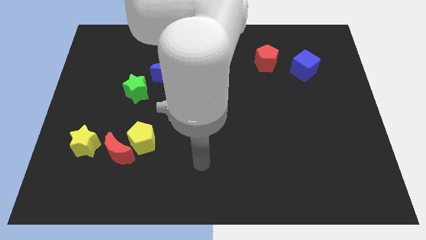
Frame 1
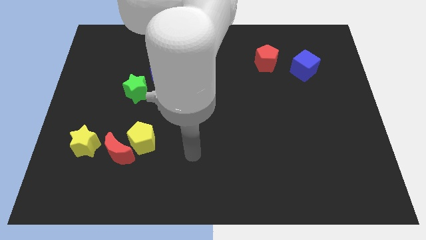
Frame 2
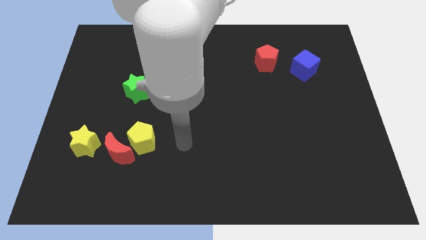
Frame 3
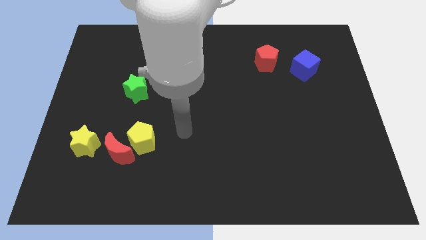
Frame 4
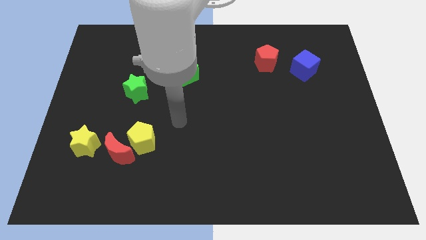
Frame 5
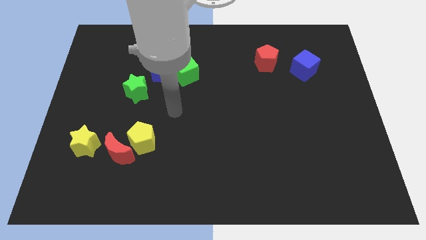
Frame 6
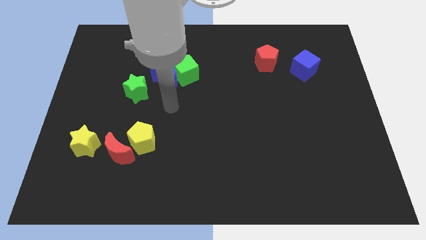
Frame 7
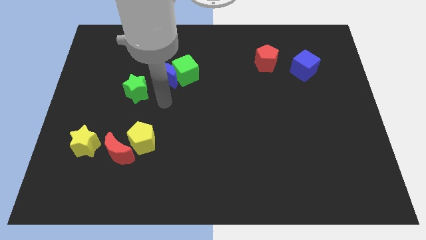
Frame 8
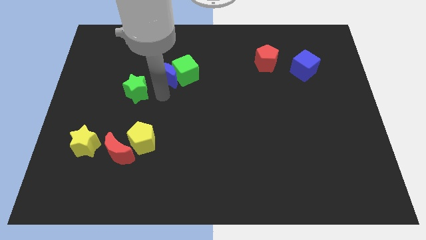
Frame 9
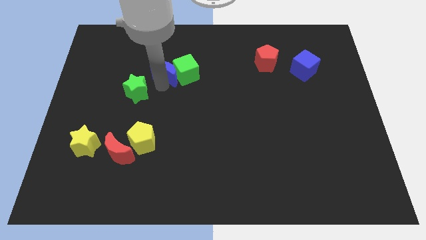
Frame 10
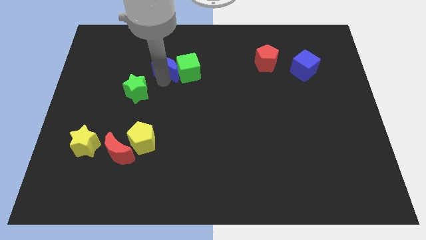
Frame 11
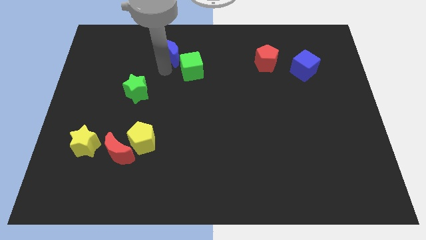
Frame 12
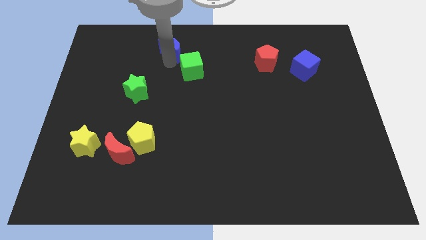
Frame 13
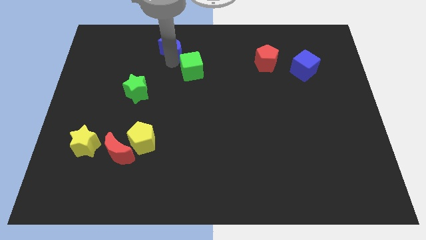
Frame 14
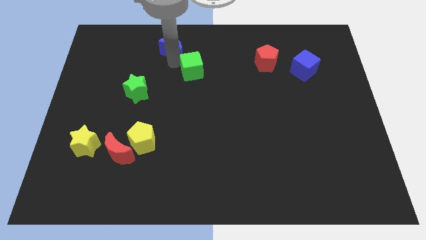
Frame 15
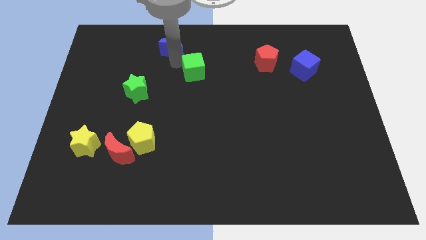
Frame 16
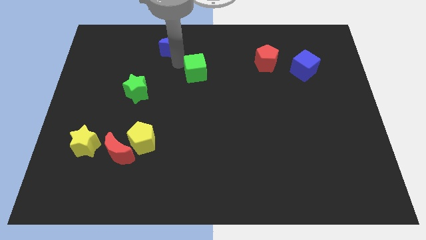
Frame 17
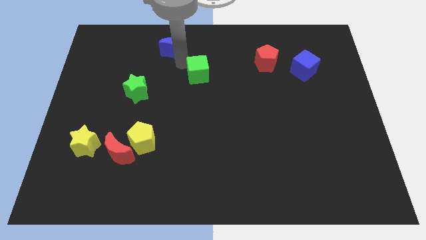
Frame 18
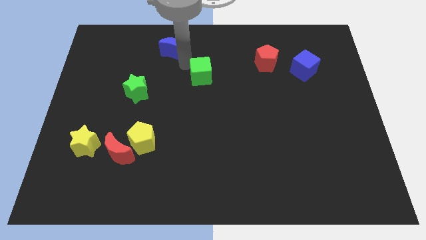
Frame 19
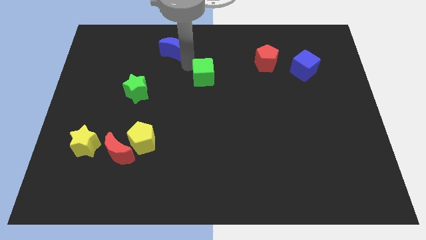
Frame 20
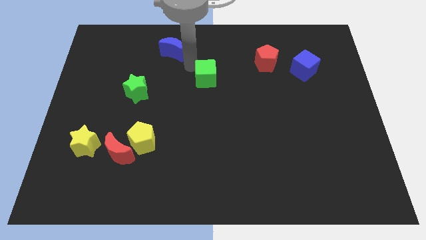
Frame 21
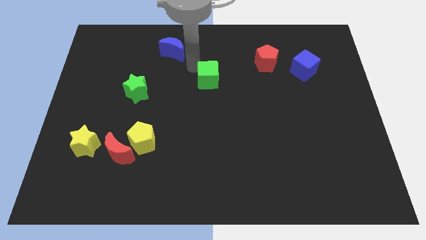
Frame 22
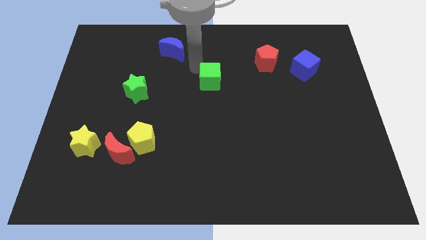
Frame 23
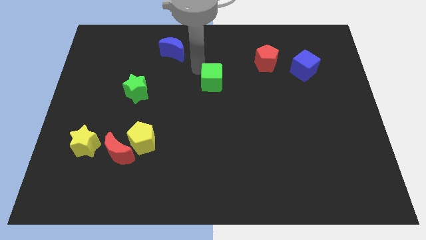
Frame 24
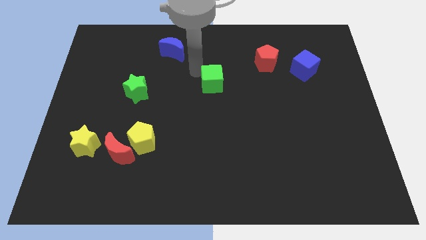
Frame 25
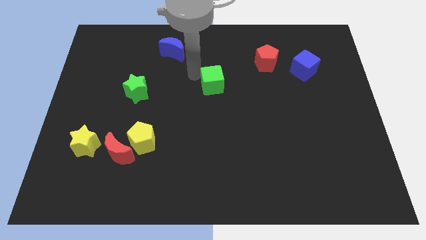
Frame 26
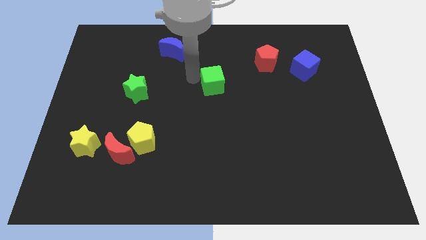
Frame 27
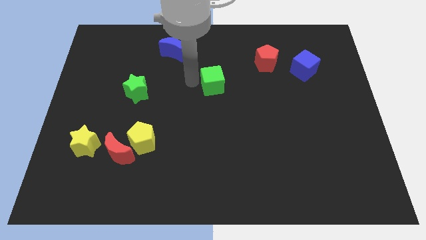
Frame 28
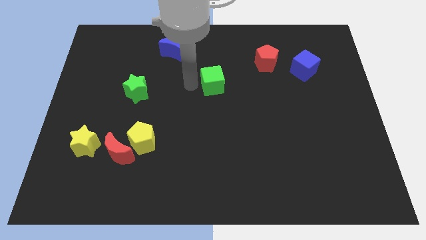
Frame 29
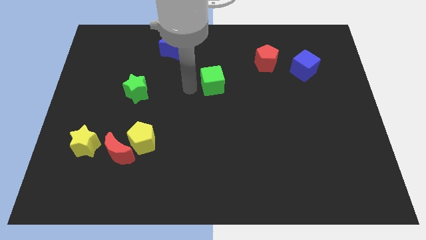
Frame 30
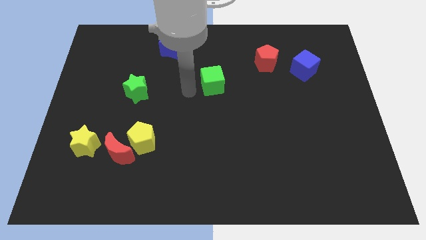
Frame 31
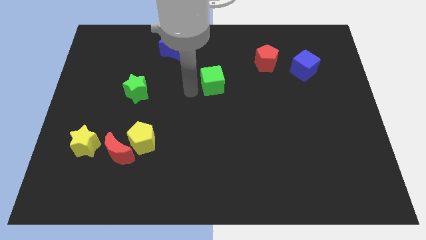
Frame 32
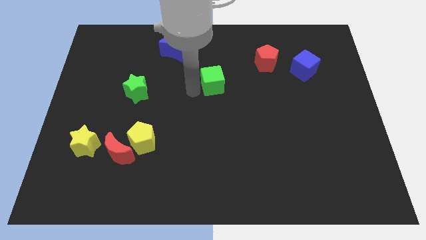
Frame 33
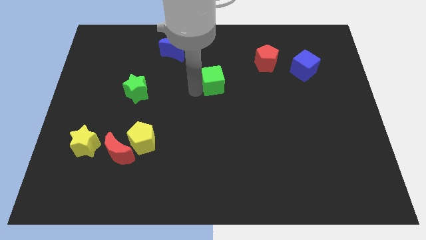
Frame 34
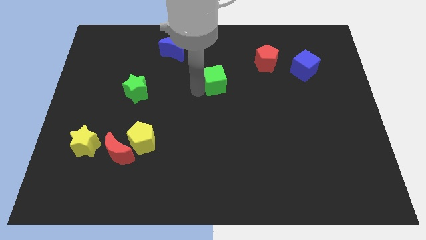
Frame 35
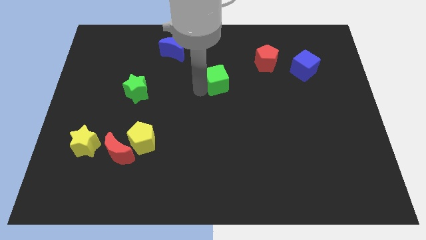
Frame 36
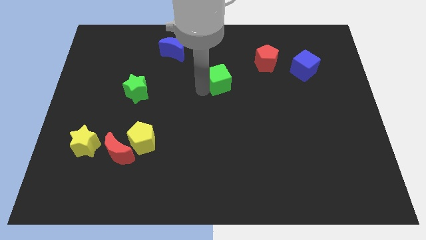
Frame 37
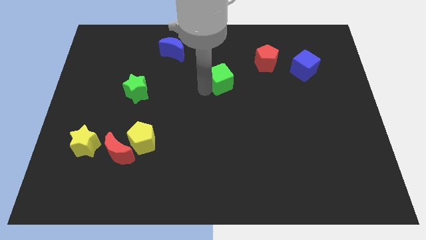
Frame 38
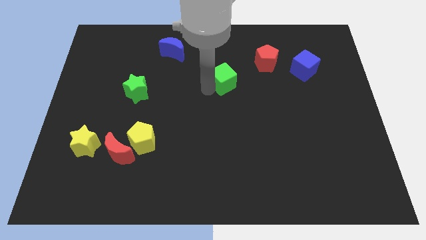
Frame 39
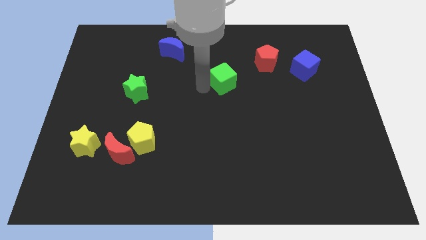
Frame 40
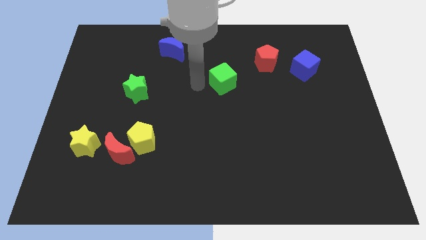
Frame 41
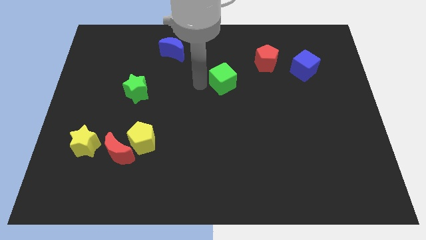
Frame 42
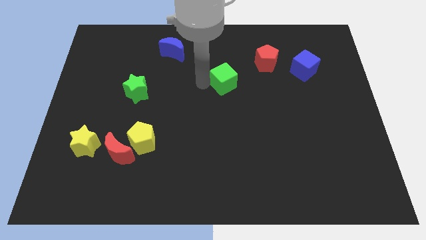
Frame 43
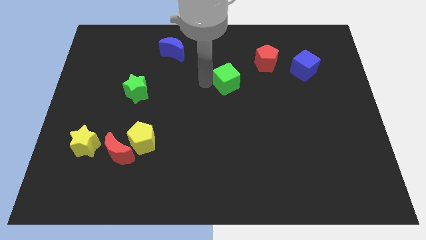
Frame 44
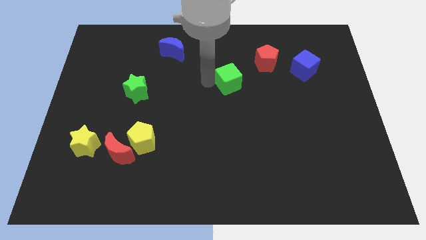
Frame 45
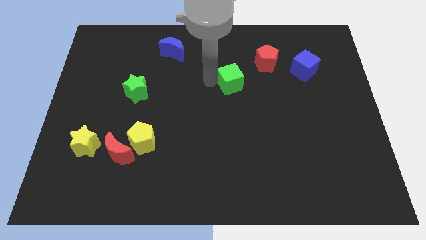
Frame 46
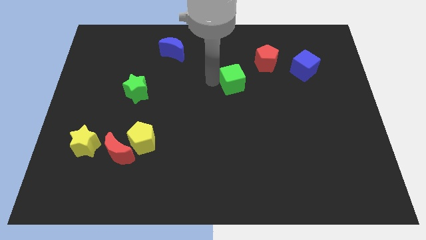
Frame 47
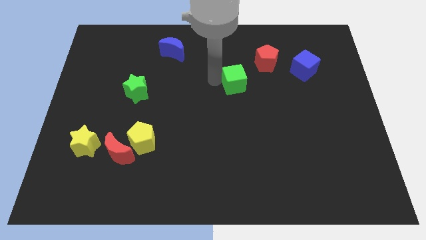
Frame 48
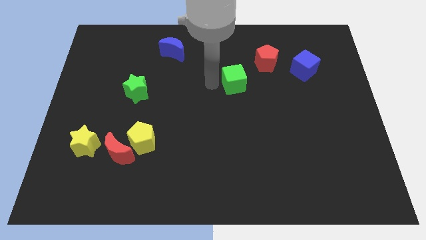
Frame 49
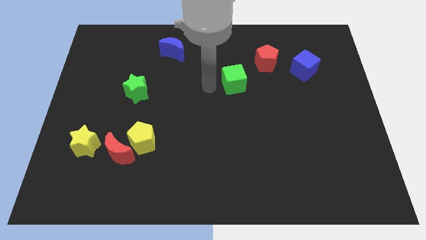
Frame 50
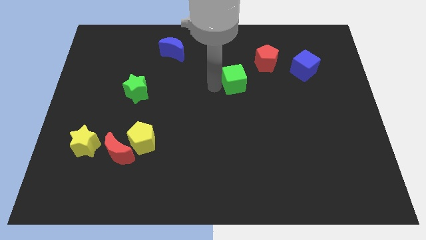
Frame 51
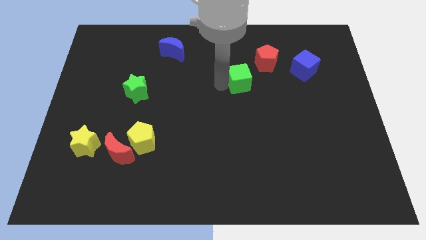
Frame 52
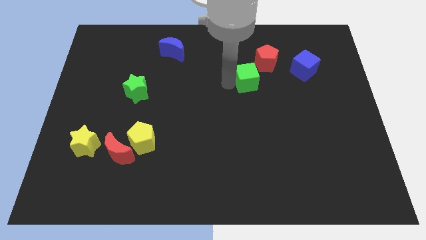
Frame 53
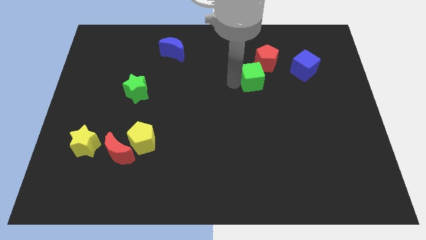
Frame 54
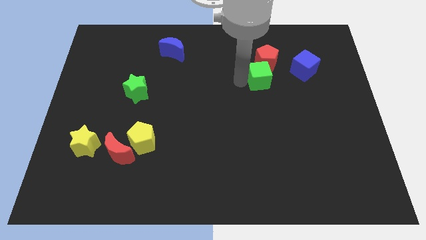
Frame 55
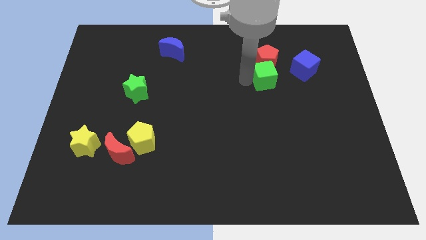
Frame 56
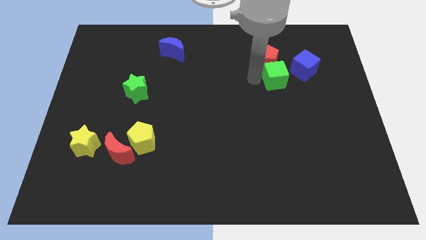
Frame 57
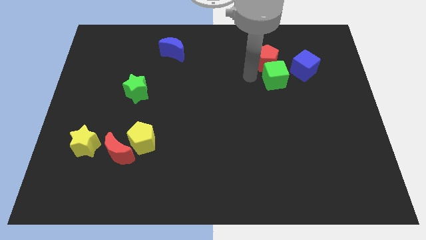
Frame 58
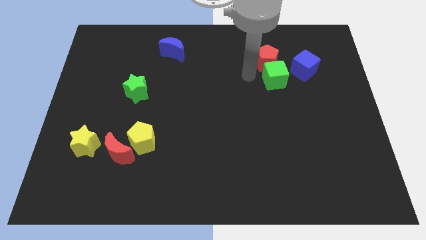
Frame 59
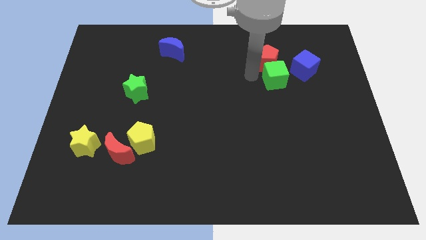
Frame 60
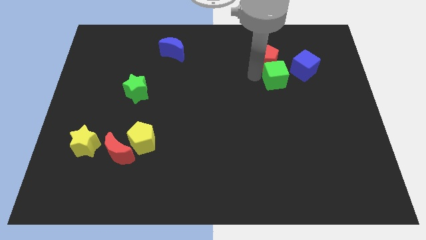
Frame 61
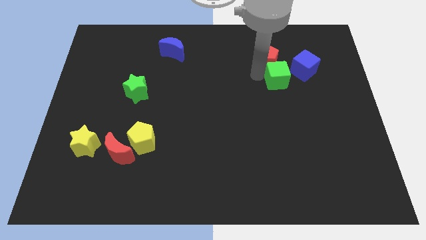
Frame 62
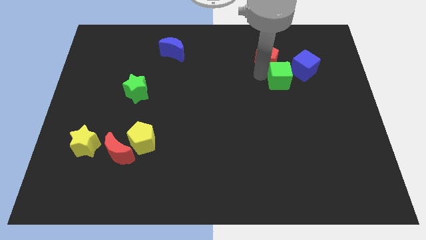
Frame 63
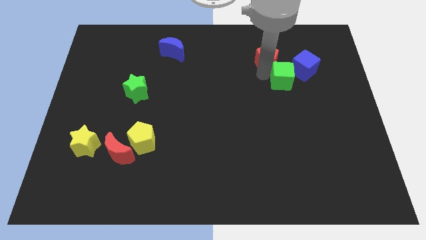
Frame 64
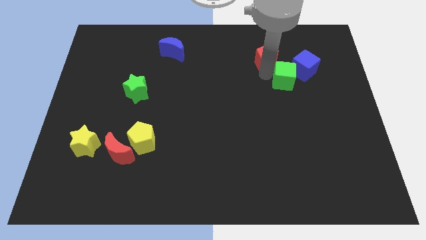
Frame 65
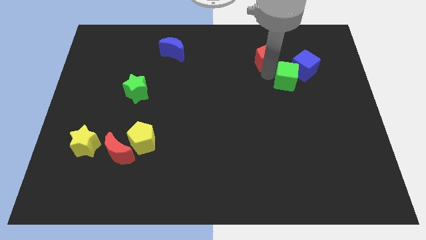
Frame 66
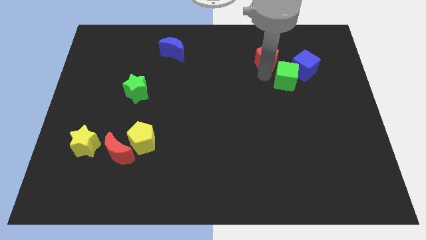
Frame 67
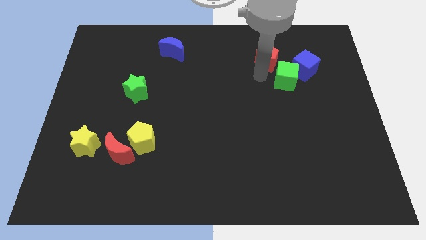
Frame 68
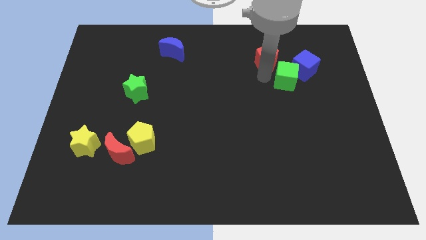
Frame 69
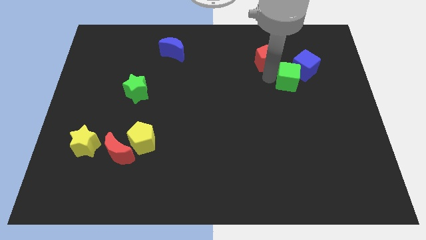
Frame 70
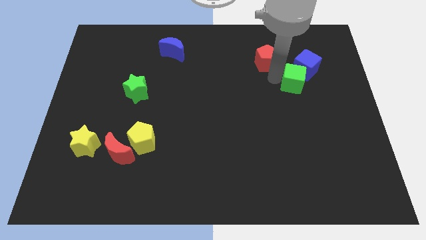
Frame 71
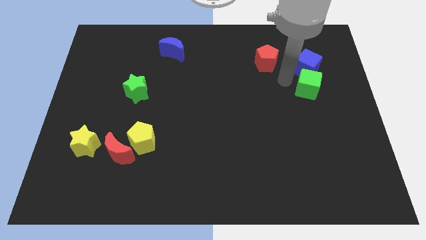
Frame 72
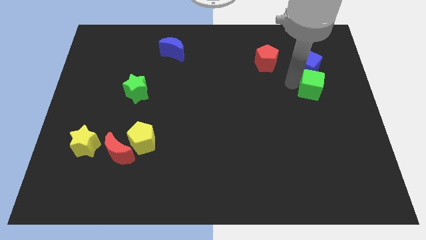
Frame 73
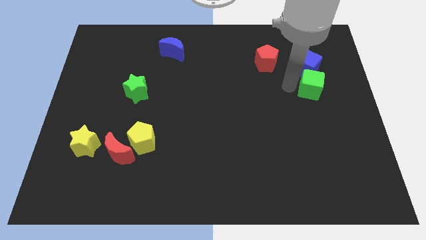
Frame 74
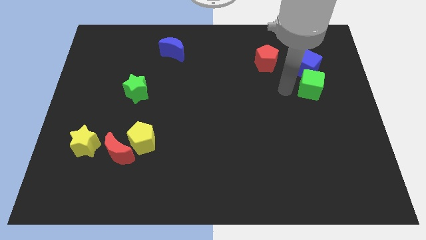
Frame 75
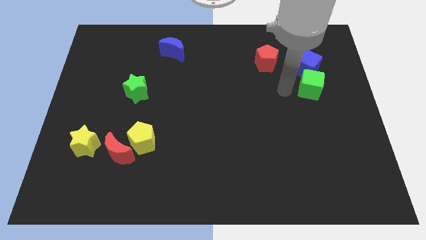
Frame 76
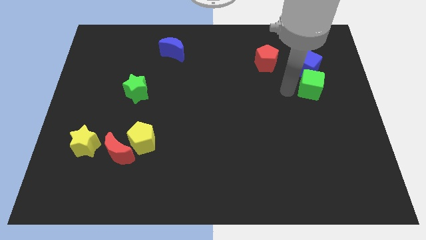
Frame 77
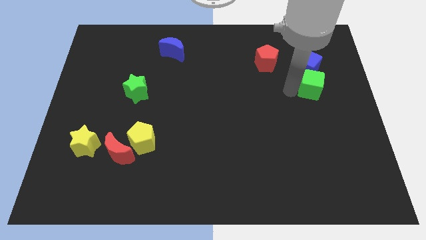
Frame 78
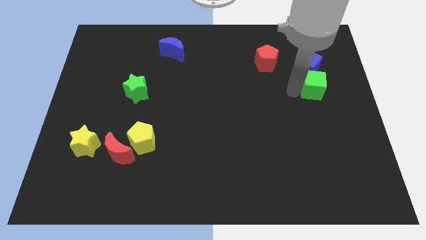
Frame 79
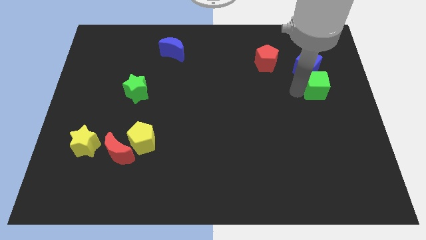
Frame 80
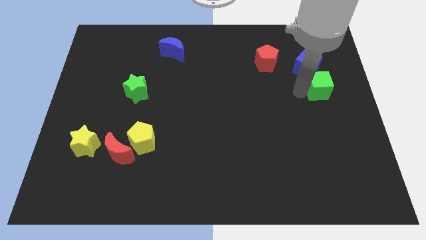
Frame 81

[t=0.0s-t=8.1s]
put the green cube to the right side
